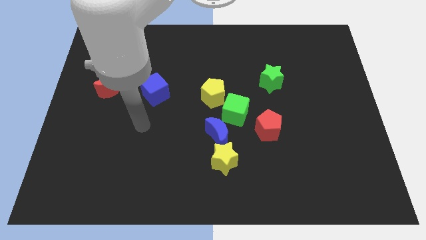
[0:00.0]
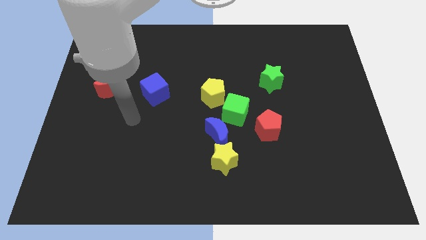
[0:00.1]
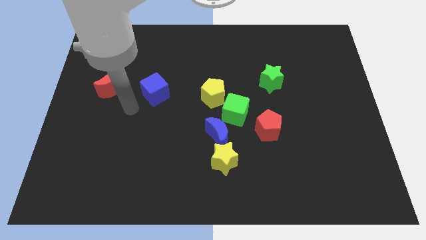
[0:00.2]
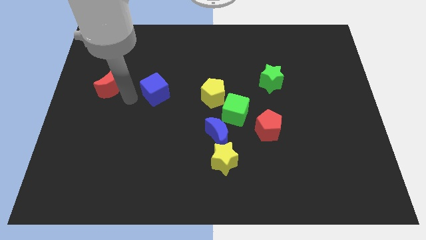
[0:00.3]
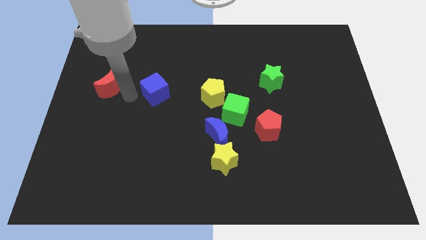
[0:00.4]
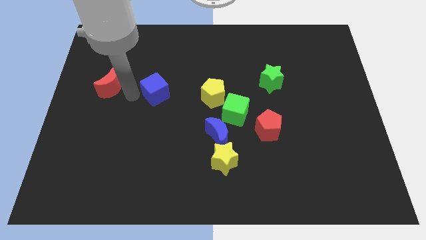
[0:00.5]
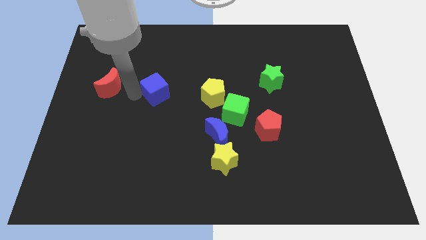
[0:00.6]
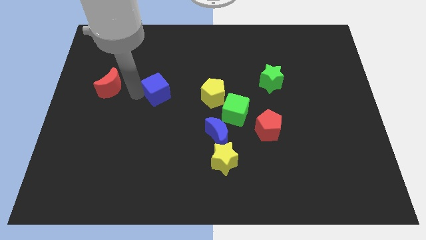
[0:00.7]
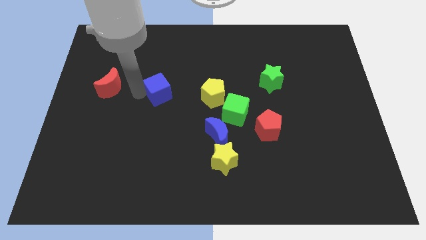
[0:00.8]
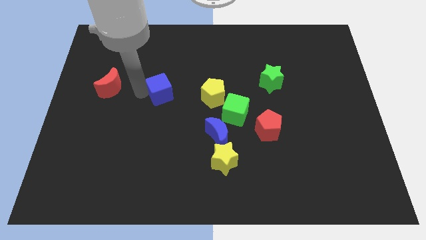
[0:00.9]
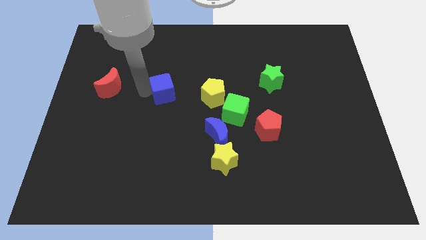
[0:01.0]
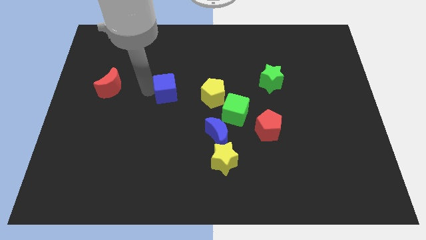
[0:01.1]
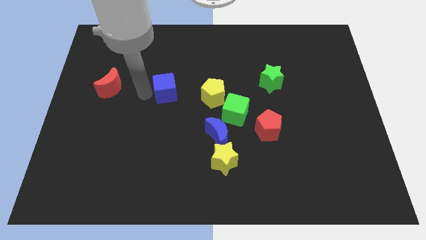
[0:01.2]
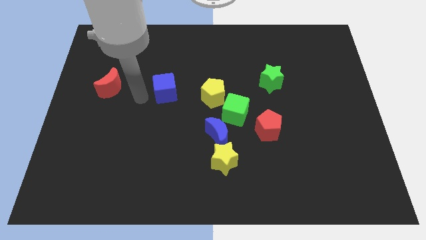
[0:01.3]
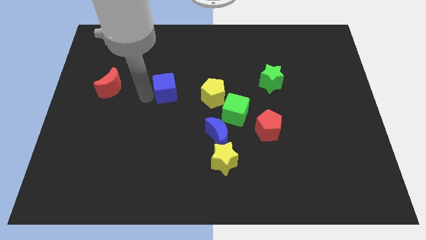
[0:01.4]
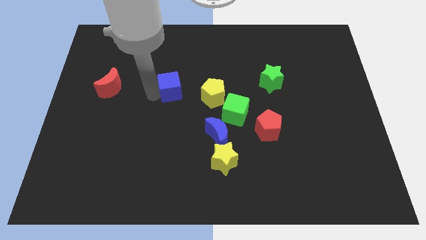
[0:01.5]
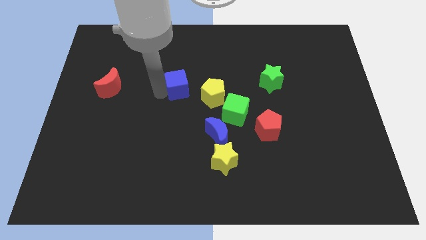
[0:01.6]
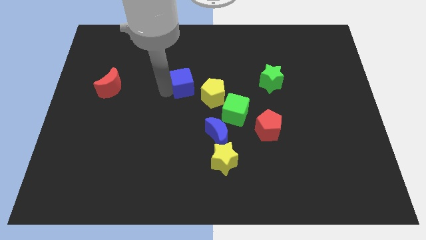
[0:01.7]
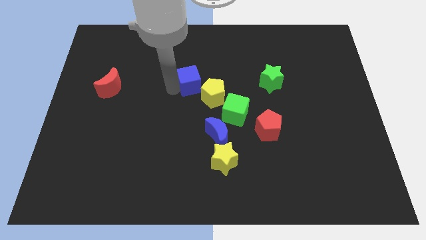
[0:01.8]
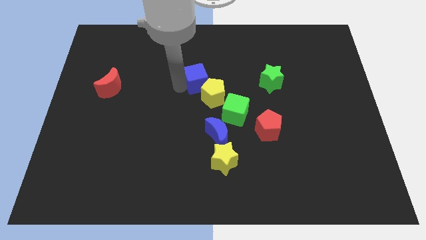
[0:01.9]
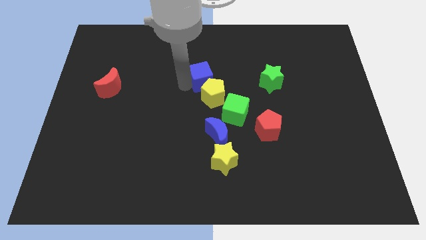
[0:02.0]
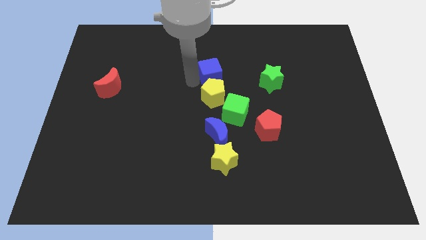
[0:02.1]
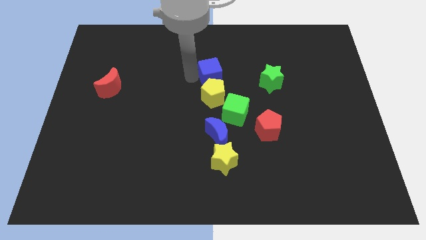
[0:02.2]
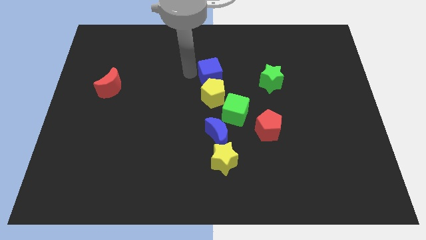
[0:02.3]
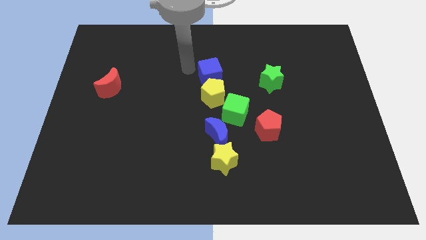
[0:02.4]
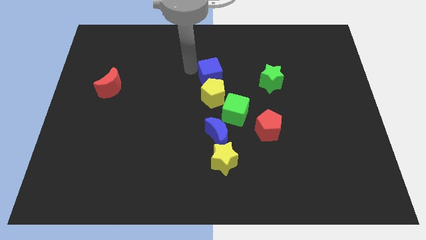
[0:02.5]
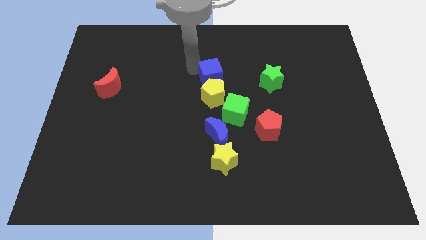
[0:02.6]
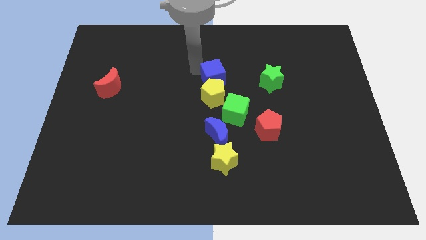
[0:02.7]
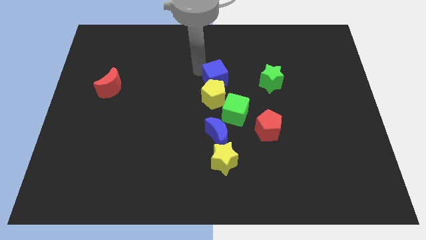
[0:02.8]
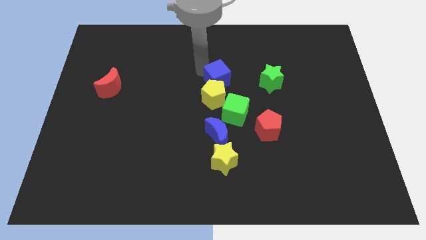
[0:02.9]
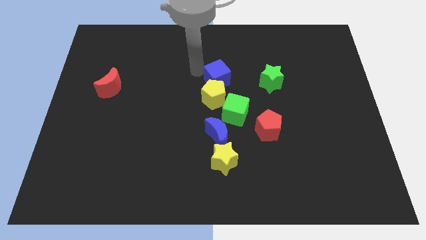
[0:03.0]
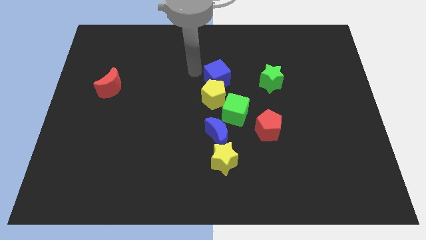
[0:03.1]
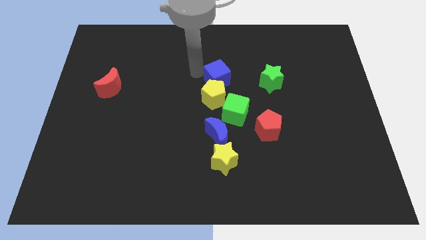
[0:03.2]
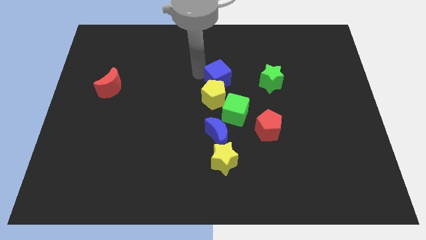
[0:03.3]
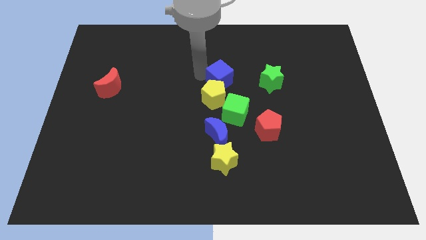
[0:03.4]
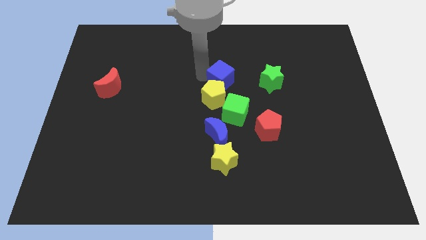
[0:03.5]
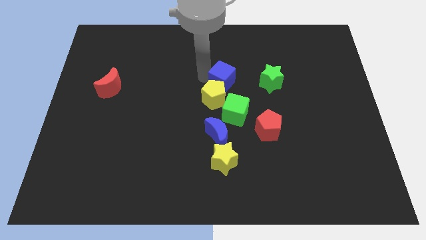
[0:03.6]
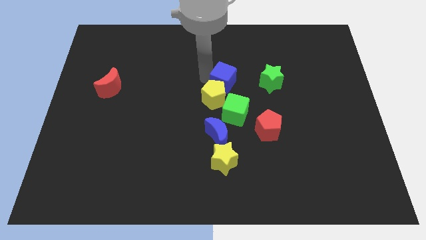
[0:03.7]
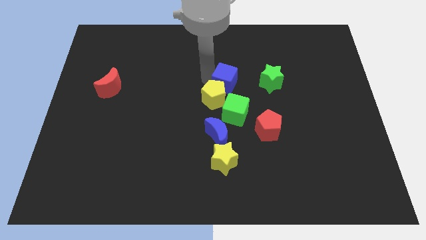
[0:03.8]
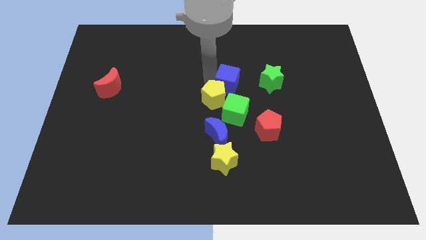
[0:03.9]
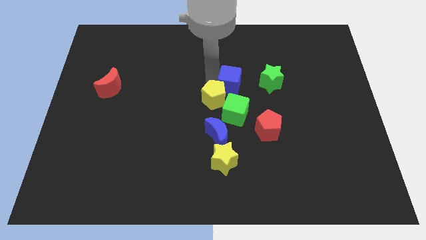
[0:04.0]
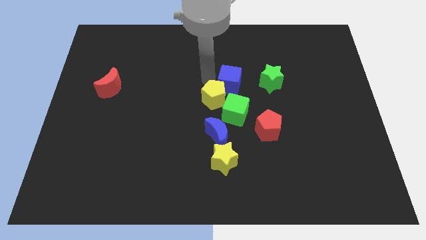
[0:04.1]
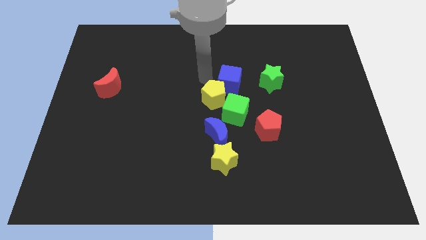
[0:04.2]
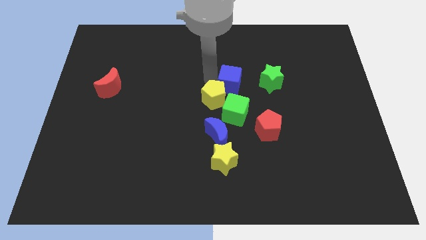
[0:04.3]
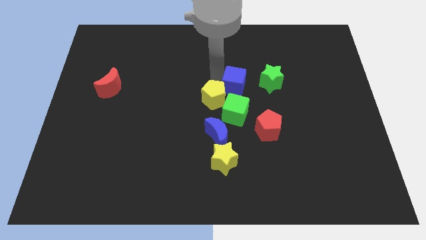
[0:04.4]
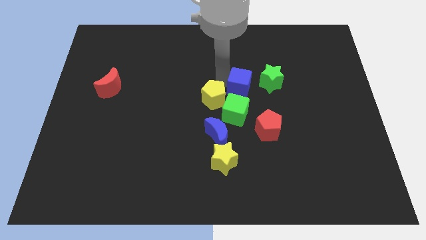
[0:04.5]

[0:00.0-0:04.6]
push the blue cube right

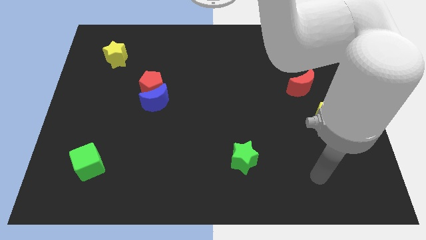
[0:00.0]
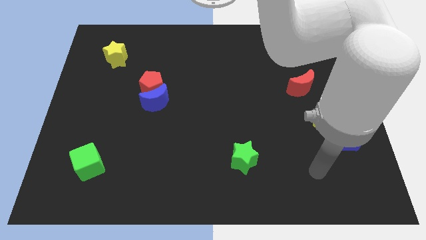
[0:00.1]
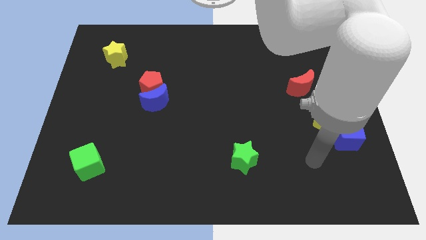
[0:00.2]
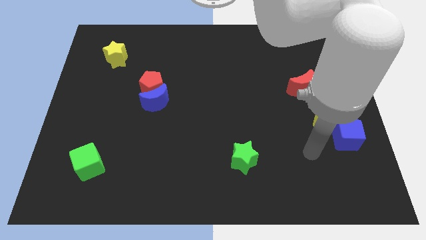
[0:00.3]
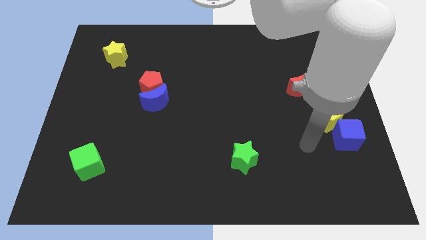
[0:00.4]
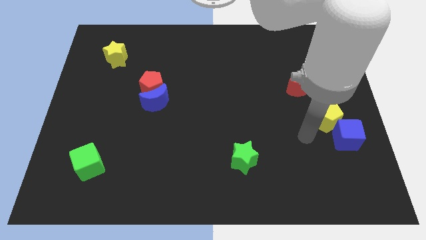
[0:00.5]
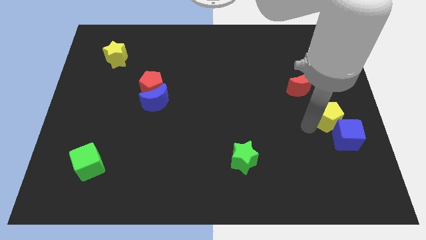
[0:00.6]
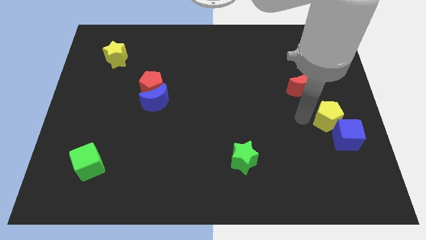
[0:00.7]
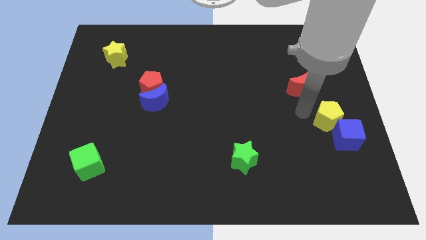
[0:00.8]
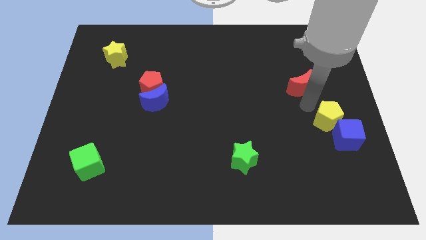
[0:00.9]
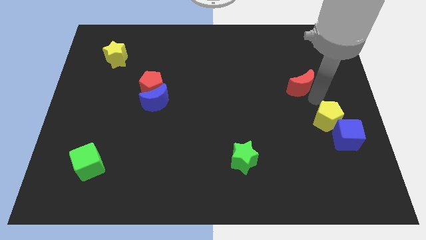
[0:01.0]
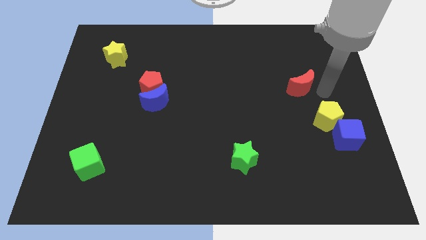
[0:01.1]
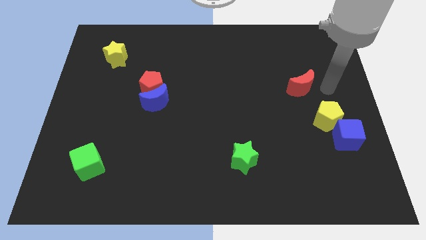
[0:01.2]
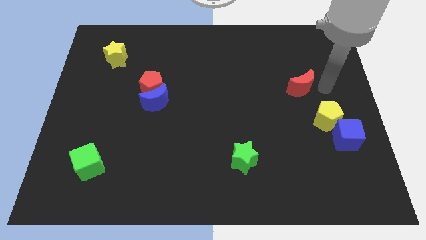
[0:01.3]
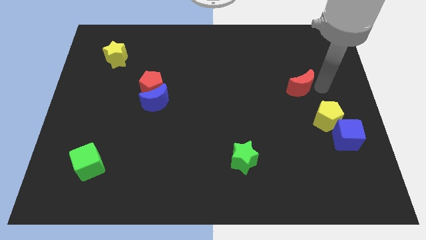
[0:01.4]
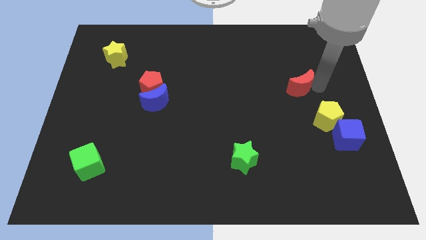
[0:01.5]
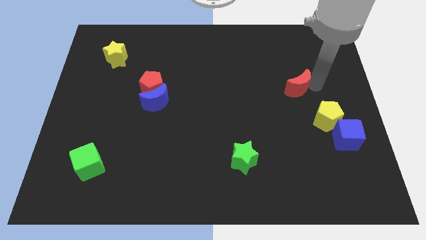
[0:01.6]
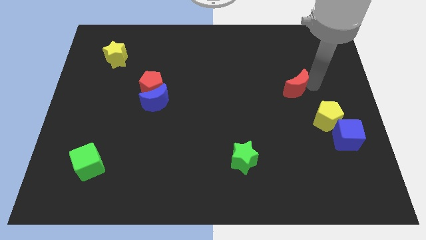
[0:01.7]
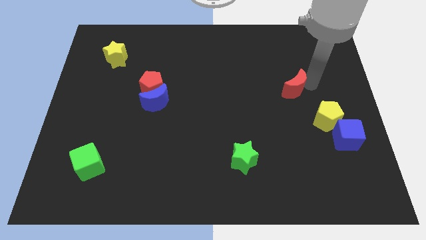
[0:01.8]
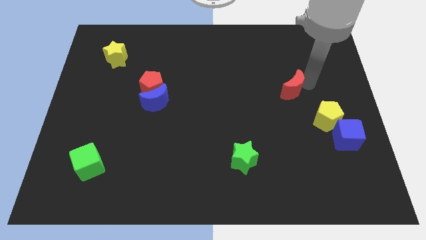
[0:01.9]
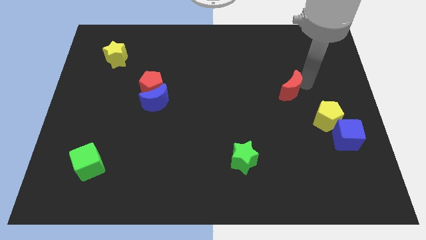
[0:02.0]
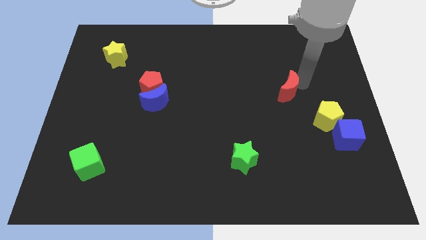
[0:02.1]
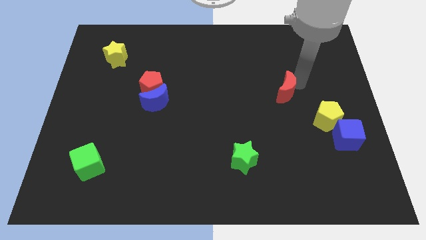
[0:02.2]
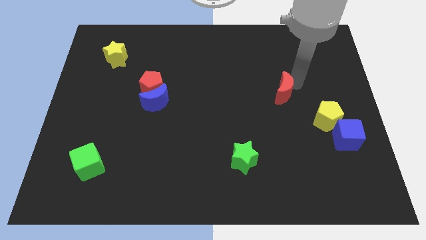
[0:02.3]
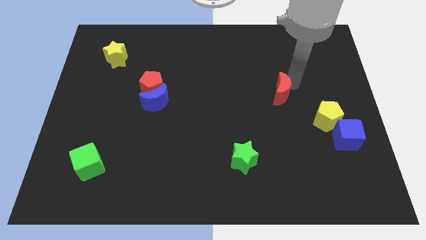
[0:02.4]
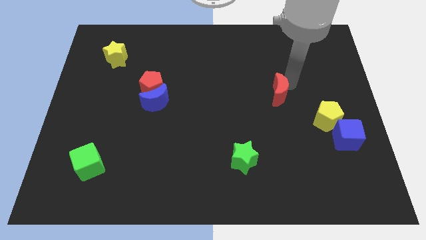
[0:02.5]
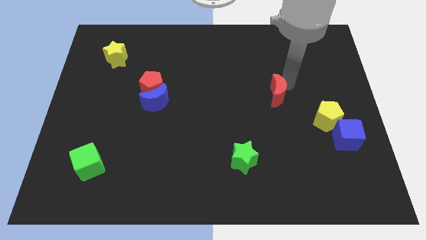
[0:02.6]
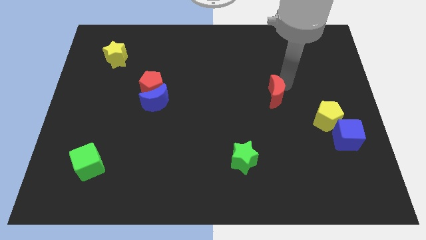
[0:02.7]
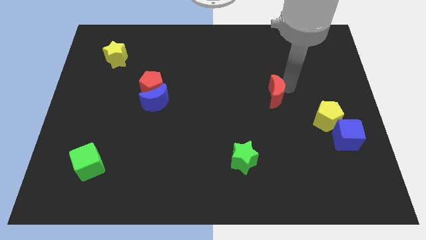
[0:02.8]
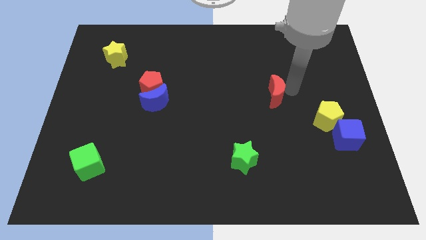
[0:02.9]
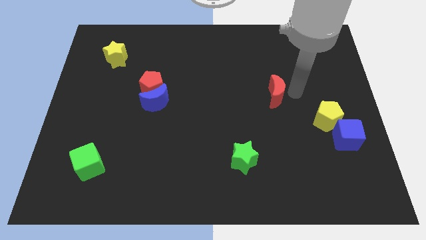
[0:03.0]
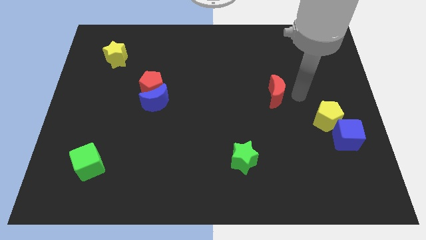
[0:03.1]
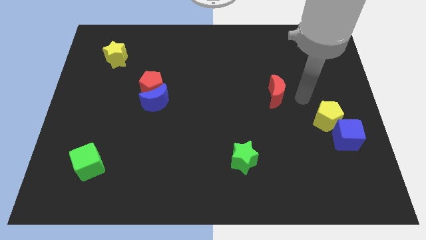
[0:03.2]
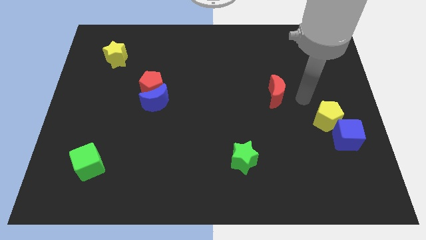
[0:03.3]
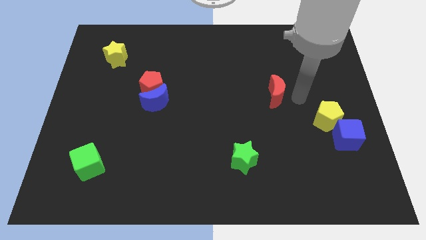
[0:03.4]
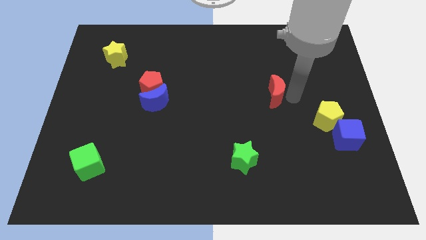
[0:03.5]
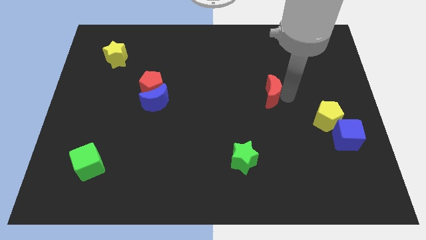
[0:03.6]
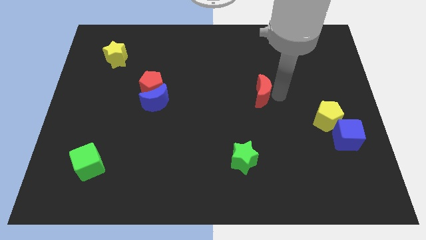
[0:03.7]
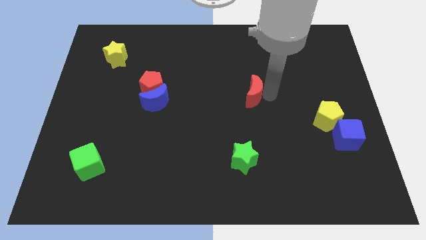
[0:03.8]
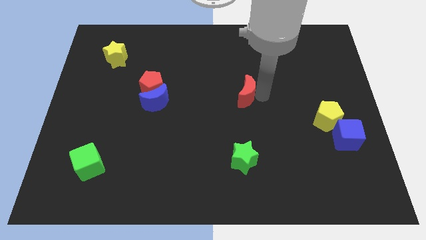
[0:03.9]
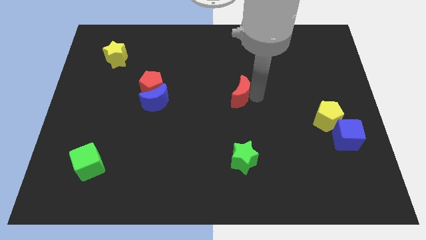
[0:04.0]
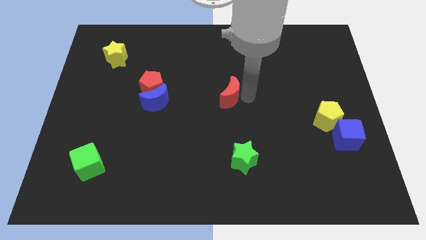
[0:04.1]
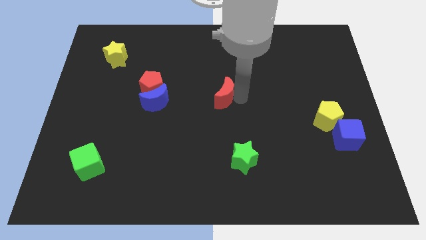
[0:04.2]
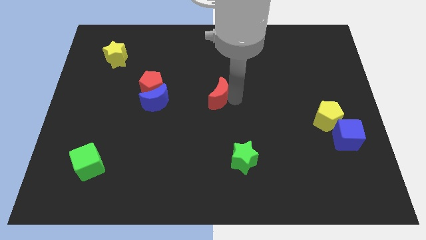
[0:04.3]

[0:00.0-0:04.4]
slide the red moon to the left
